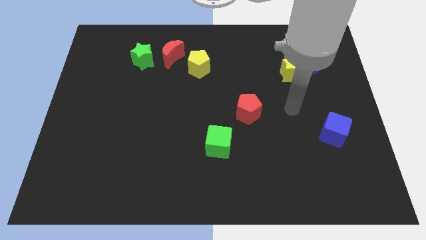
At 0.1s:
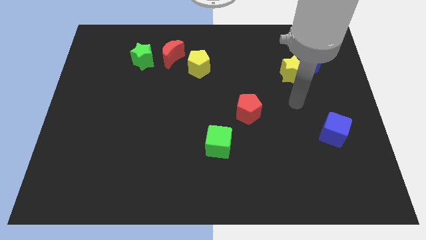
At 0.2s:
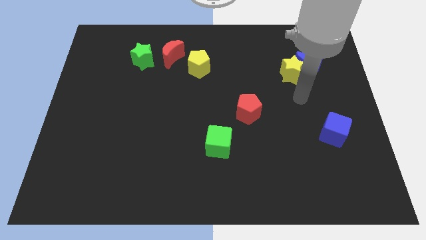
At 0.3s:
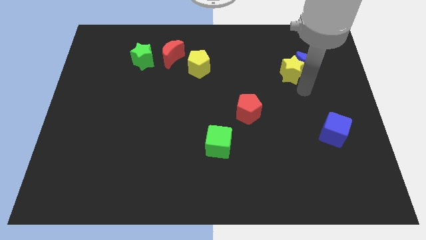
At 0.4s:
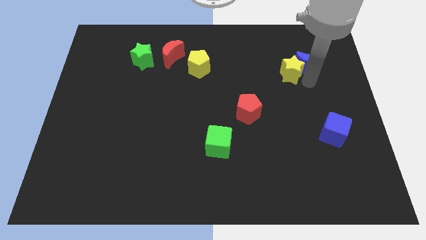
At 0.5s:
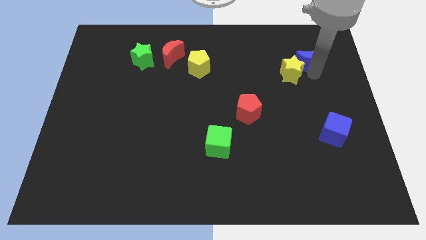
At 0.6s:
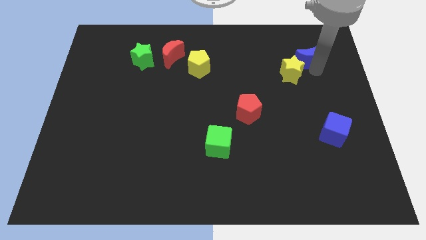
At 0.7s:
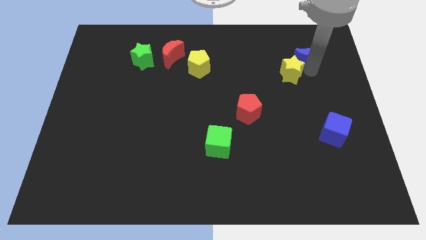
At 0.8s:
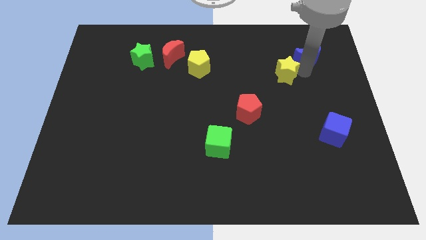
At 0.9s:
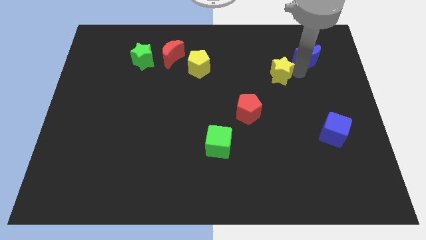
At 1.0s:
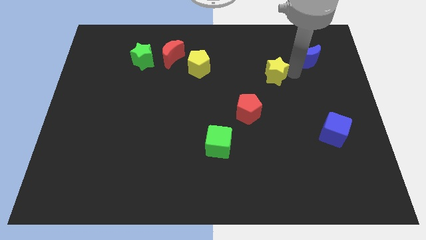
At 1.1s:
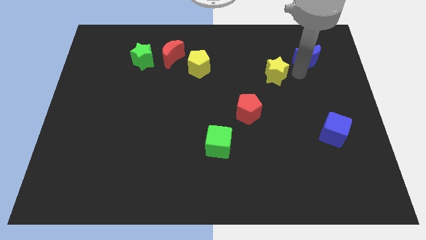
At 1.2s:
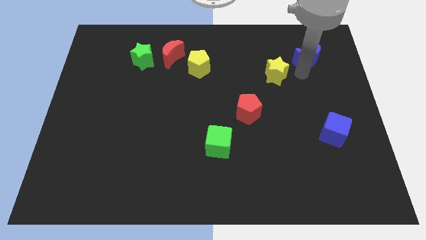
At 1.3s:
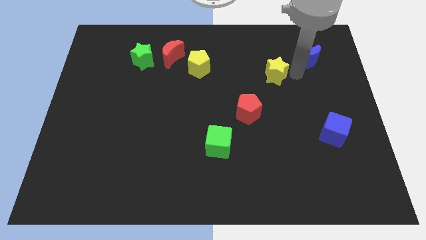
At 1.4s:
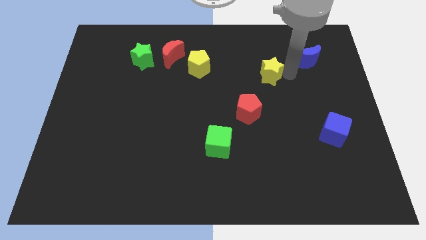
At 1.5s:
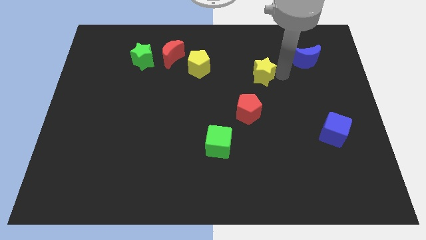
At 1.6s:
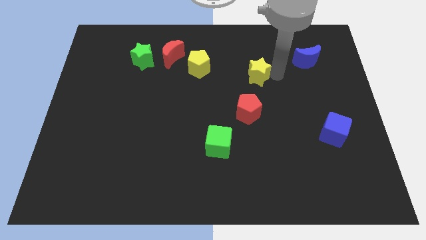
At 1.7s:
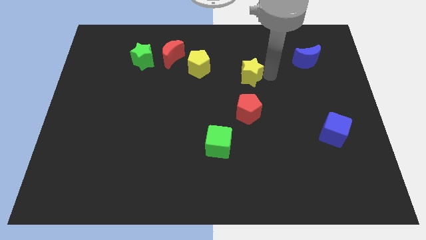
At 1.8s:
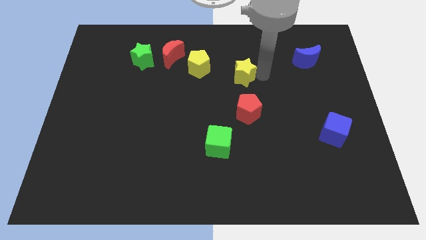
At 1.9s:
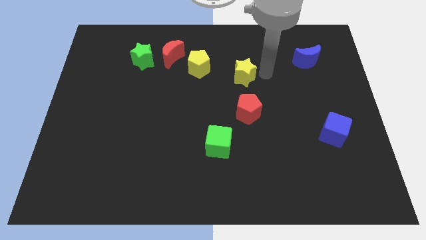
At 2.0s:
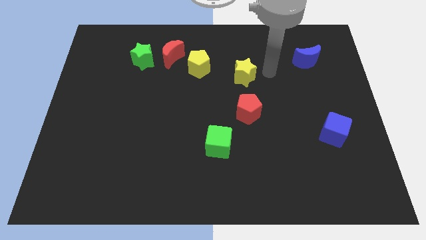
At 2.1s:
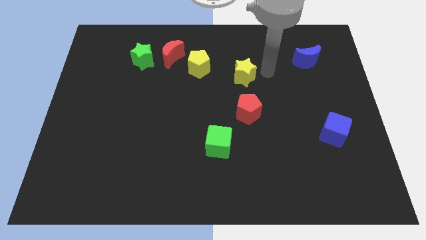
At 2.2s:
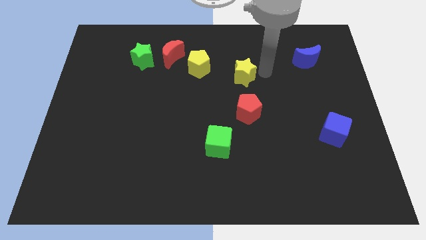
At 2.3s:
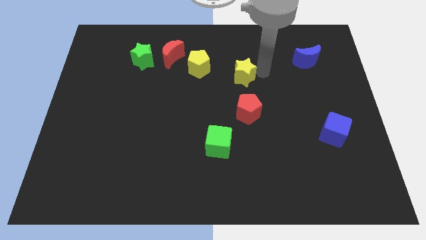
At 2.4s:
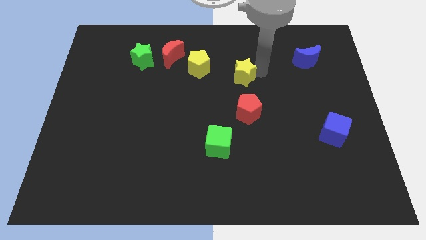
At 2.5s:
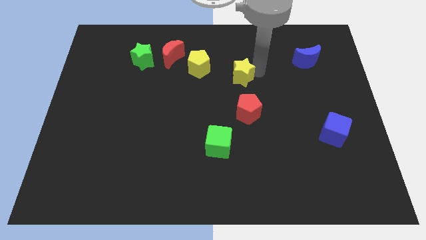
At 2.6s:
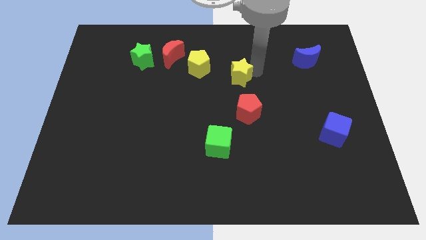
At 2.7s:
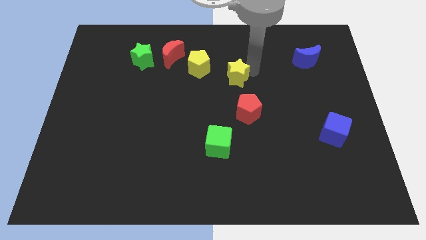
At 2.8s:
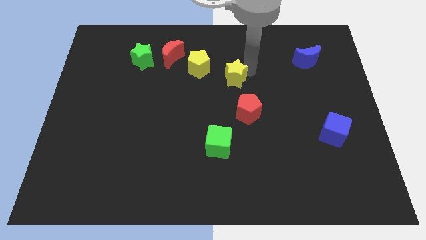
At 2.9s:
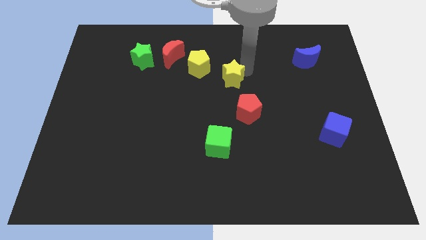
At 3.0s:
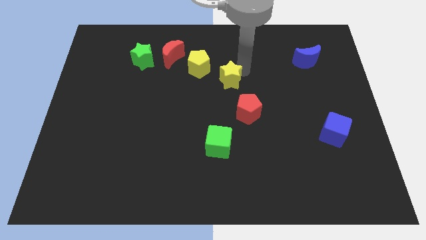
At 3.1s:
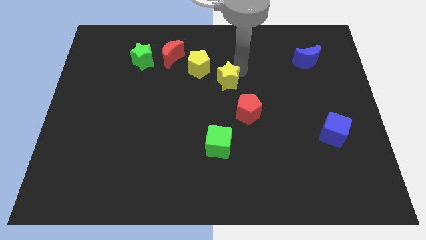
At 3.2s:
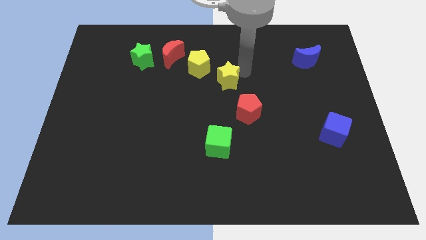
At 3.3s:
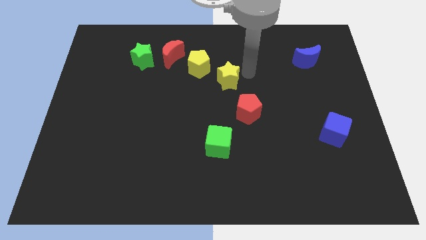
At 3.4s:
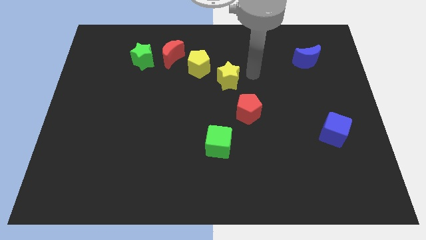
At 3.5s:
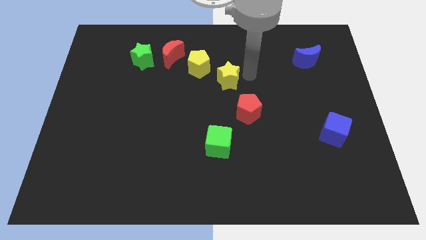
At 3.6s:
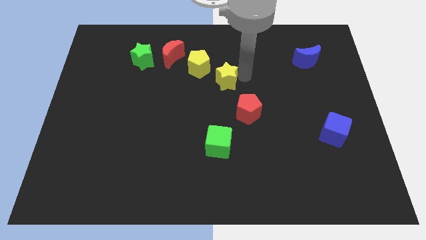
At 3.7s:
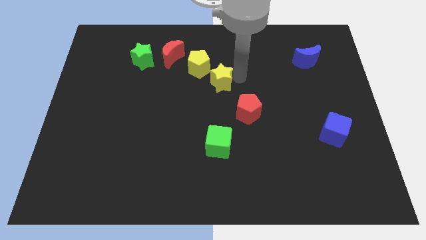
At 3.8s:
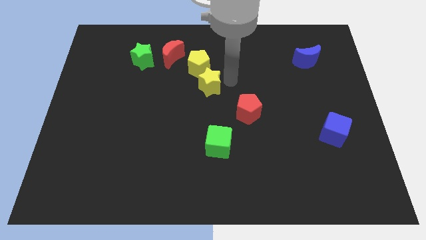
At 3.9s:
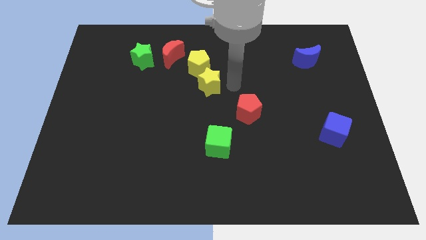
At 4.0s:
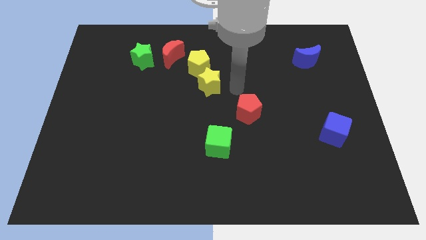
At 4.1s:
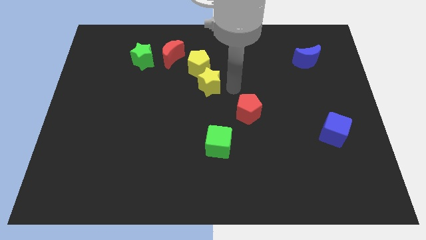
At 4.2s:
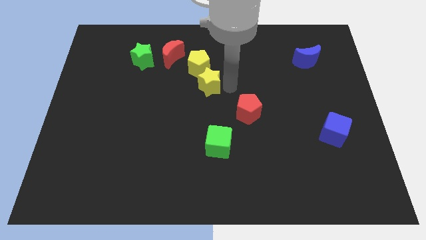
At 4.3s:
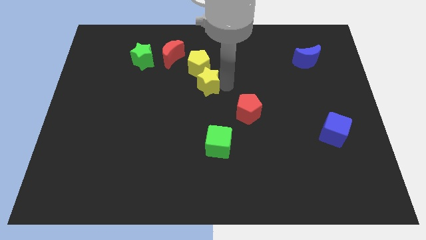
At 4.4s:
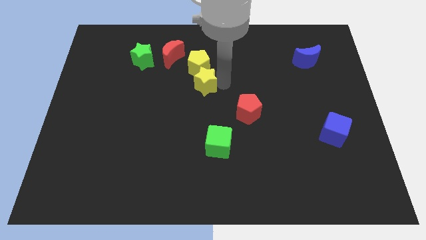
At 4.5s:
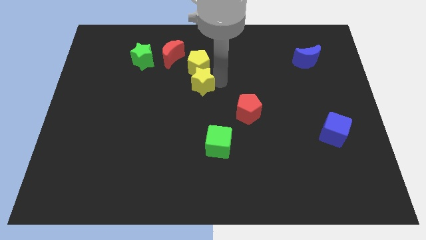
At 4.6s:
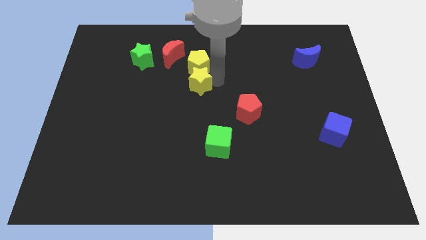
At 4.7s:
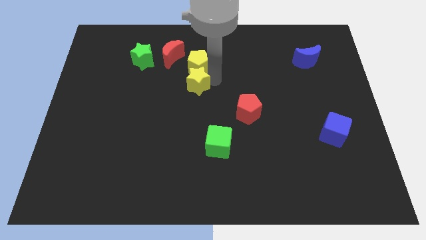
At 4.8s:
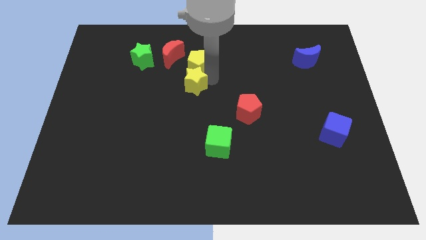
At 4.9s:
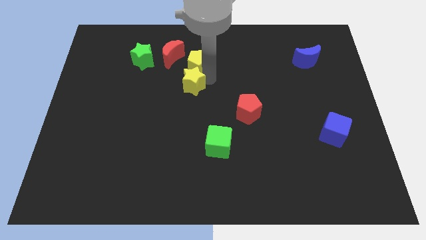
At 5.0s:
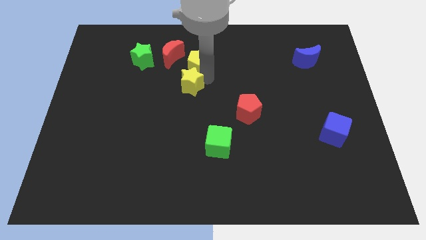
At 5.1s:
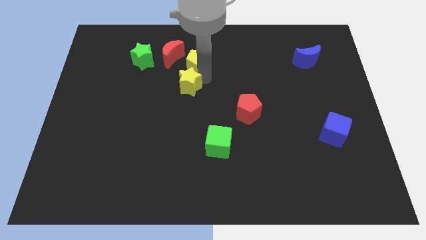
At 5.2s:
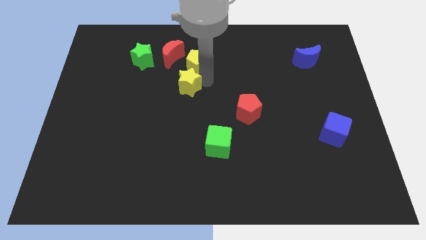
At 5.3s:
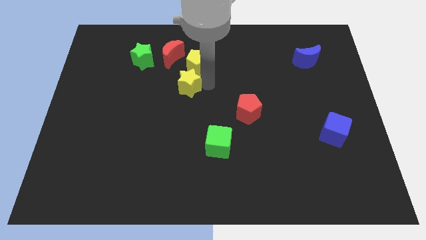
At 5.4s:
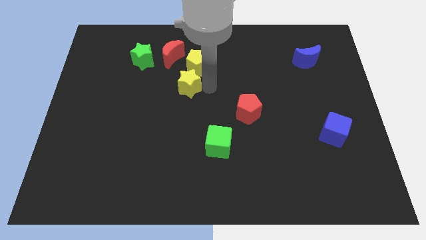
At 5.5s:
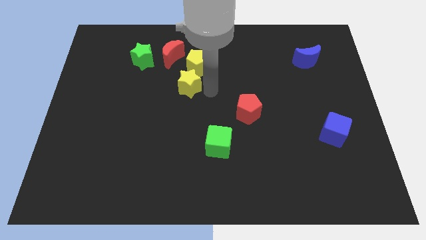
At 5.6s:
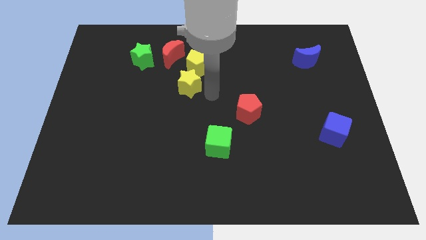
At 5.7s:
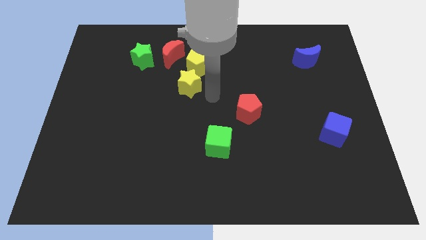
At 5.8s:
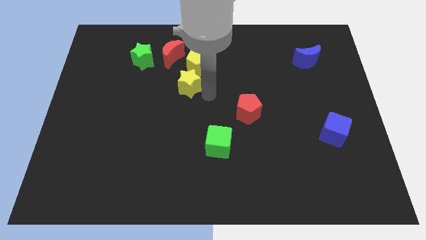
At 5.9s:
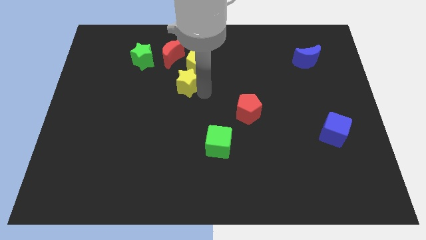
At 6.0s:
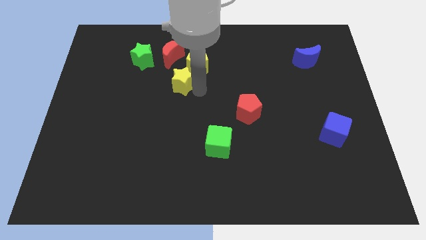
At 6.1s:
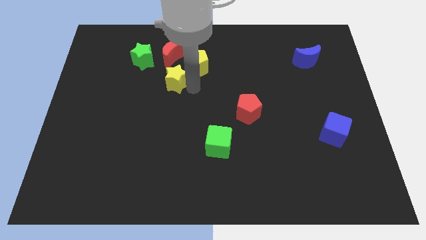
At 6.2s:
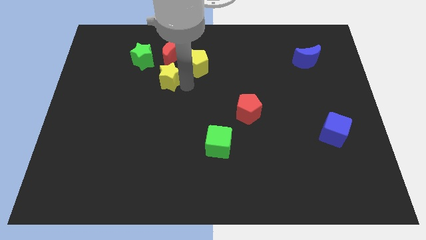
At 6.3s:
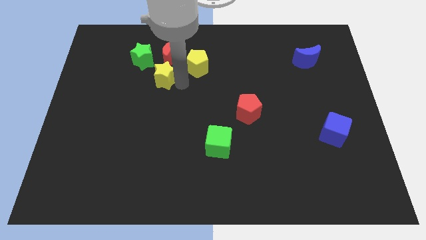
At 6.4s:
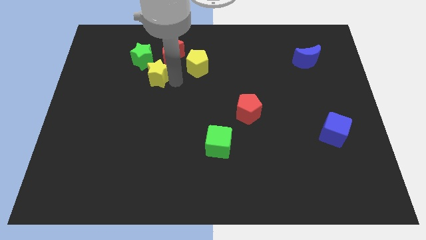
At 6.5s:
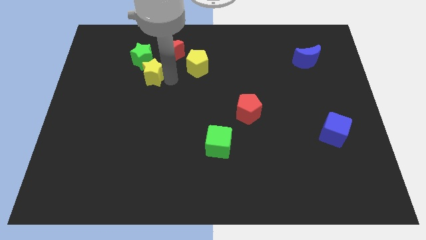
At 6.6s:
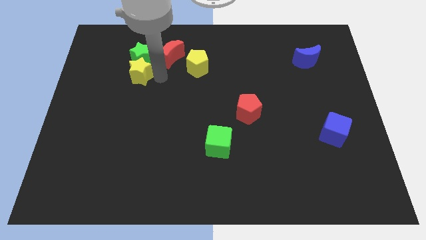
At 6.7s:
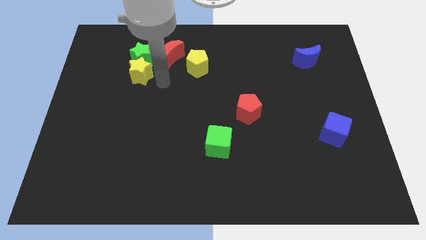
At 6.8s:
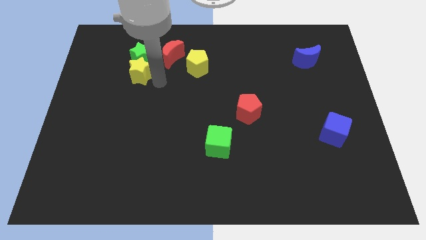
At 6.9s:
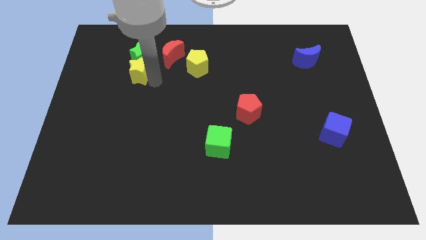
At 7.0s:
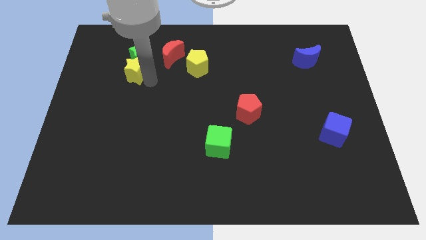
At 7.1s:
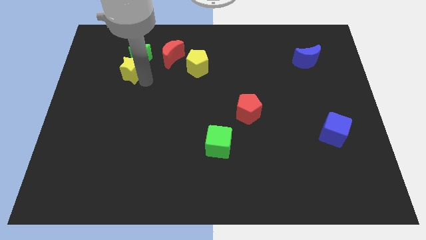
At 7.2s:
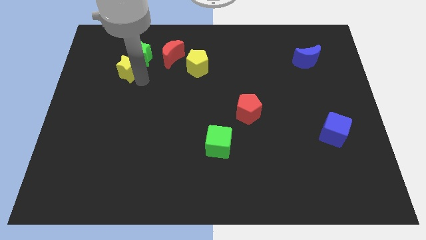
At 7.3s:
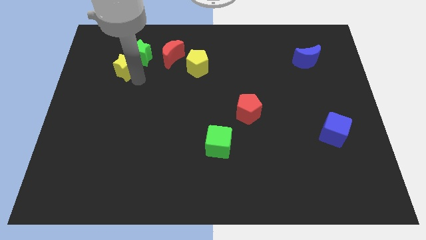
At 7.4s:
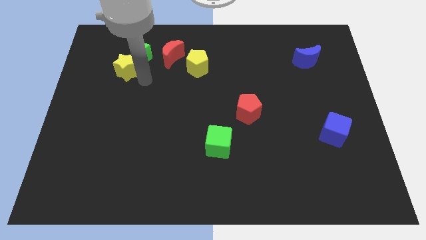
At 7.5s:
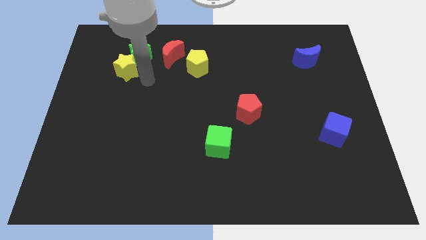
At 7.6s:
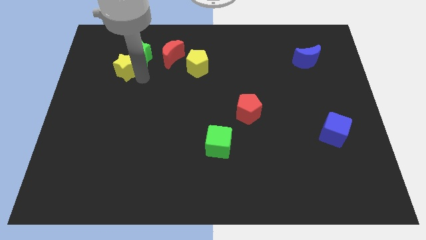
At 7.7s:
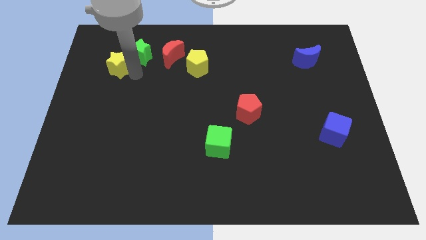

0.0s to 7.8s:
move the yellow star just left of the green star
